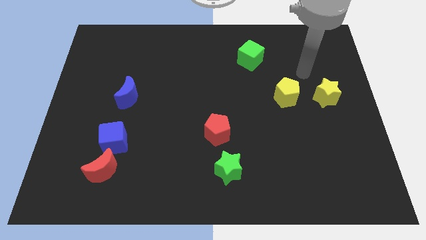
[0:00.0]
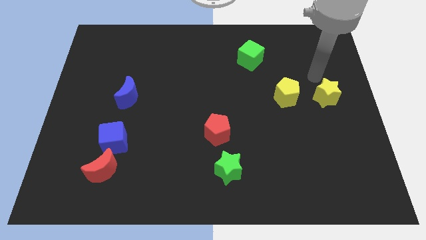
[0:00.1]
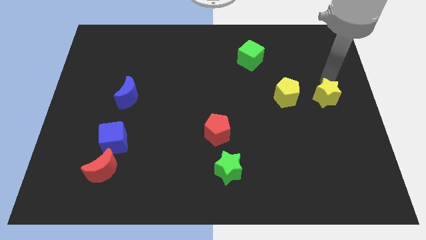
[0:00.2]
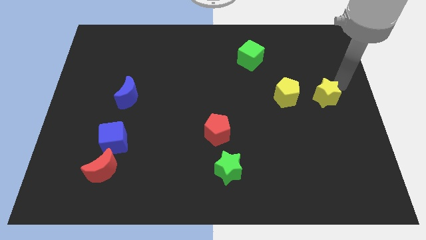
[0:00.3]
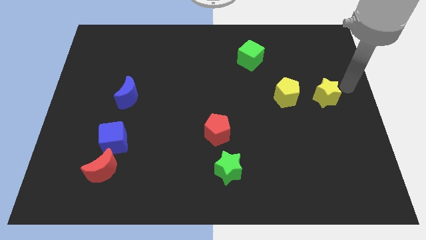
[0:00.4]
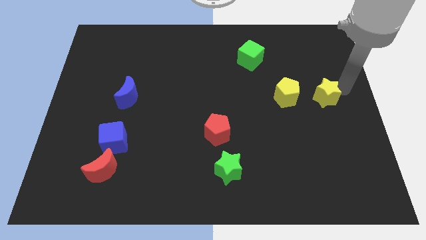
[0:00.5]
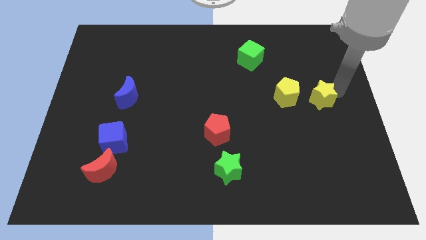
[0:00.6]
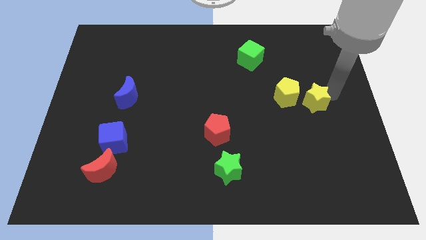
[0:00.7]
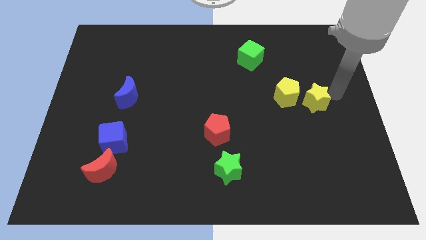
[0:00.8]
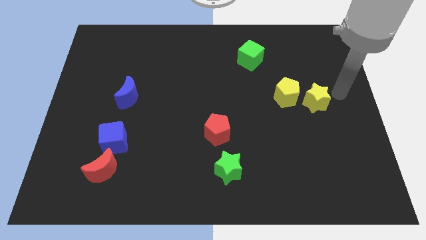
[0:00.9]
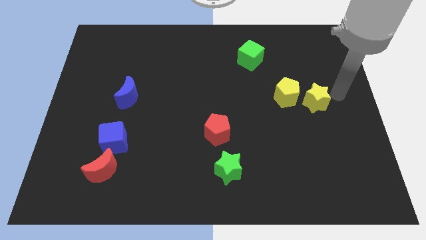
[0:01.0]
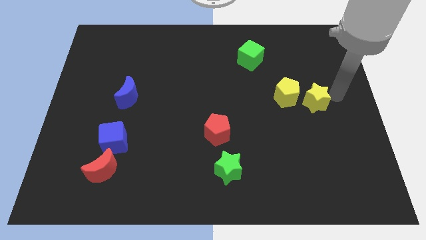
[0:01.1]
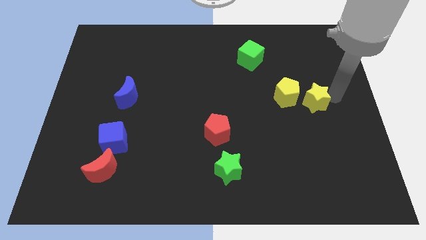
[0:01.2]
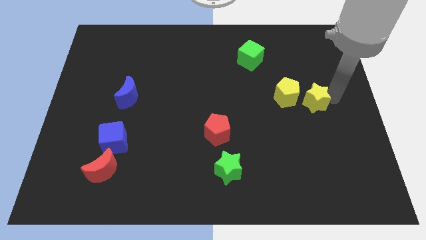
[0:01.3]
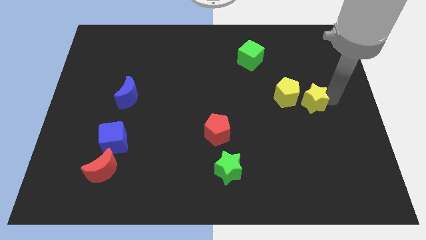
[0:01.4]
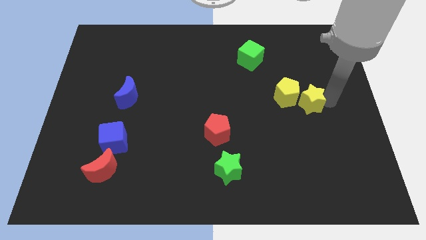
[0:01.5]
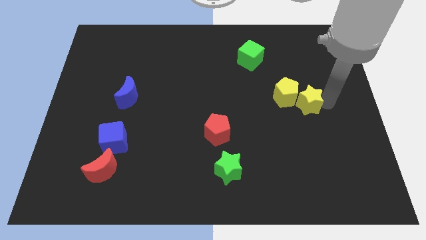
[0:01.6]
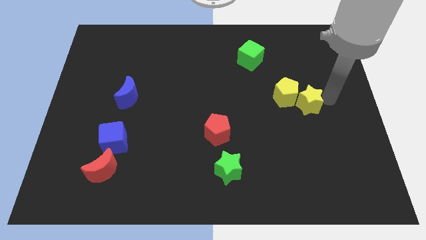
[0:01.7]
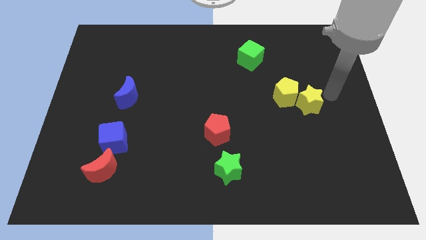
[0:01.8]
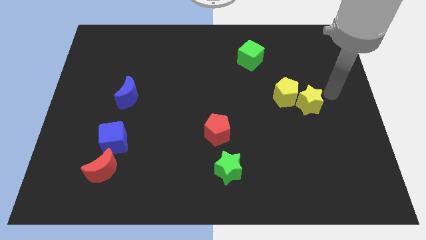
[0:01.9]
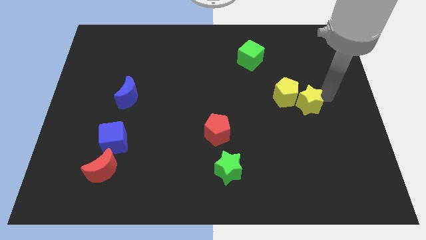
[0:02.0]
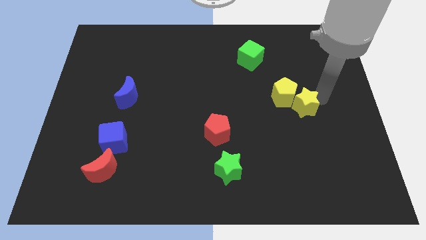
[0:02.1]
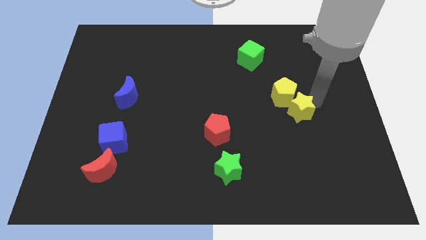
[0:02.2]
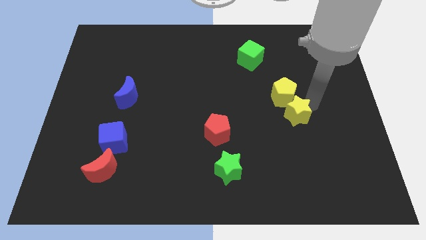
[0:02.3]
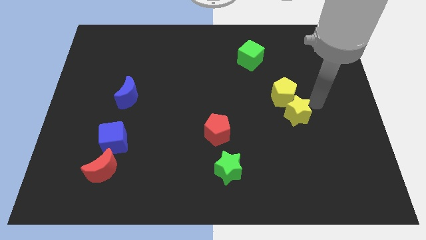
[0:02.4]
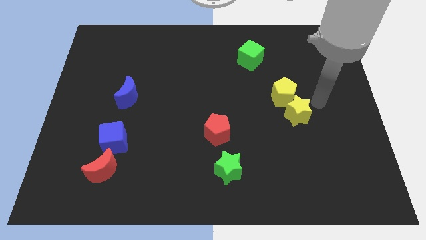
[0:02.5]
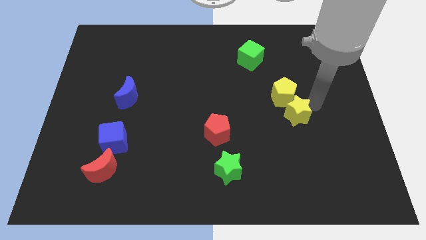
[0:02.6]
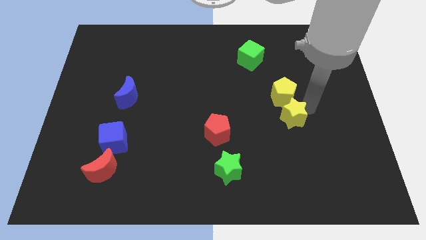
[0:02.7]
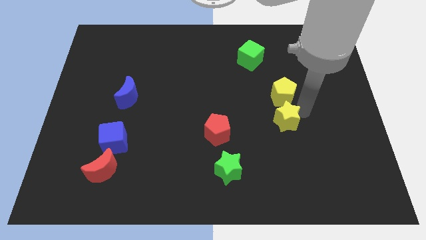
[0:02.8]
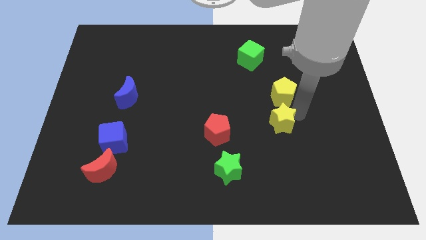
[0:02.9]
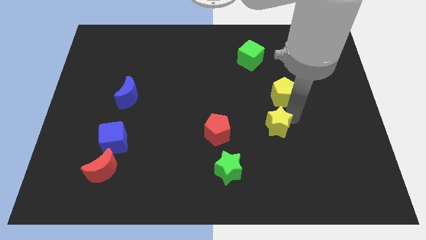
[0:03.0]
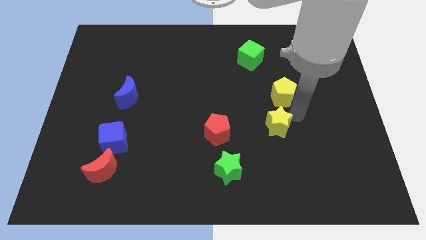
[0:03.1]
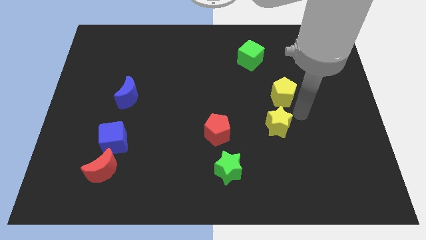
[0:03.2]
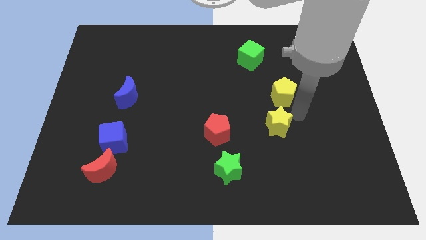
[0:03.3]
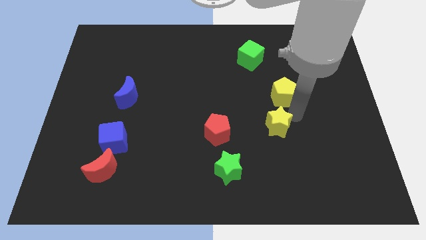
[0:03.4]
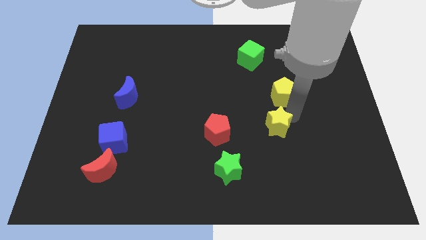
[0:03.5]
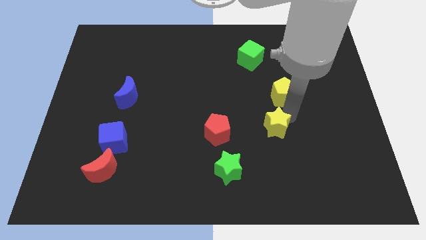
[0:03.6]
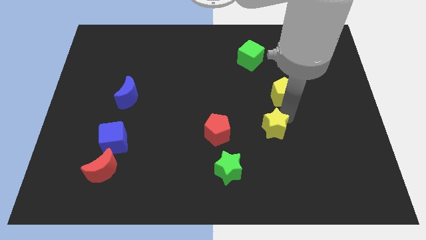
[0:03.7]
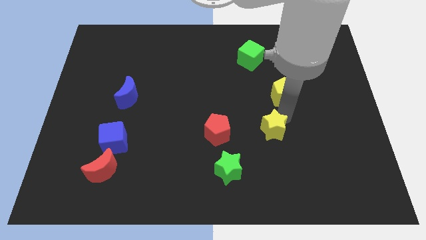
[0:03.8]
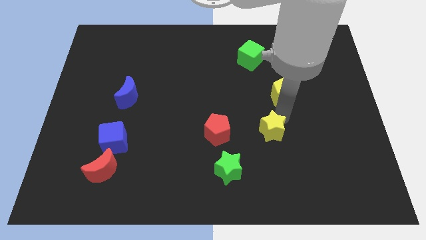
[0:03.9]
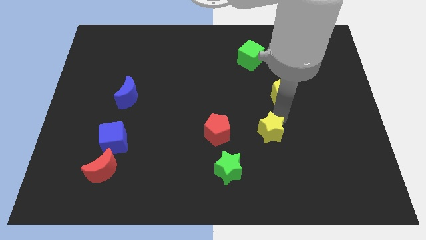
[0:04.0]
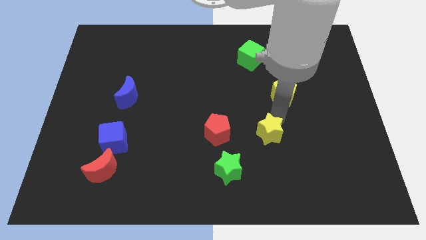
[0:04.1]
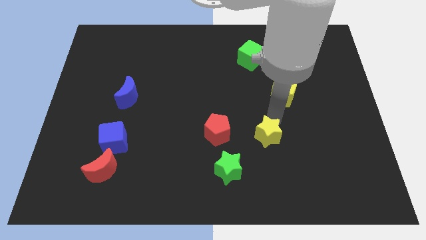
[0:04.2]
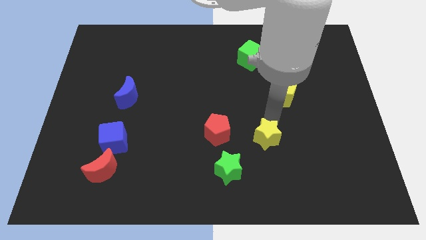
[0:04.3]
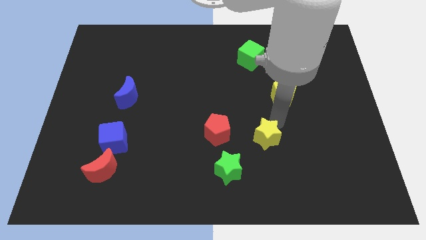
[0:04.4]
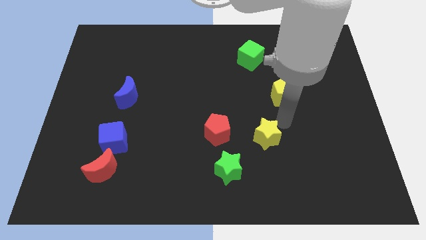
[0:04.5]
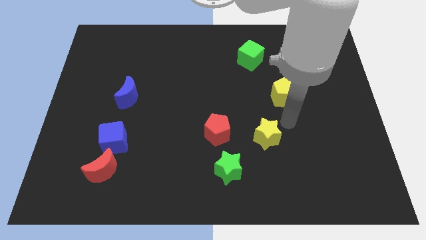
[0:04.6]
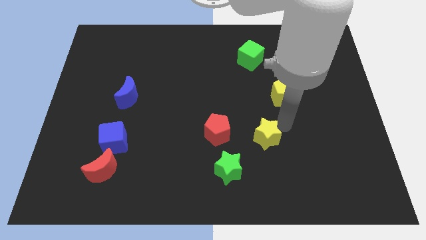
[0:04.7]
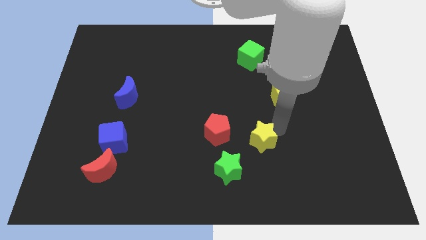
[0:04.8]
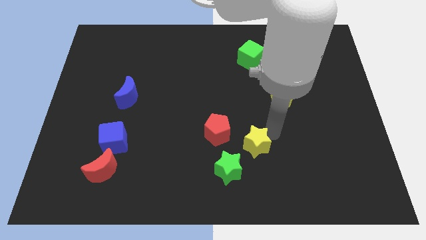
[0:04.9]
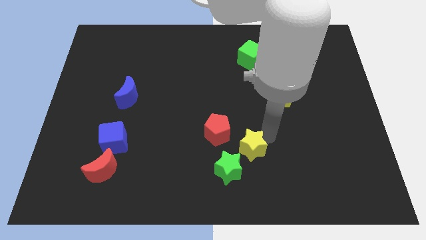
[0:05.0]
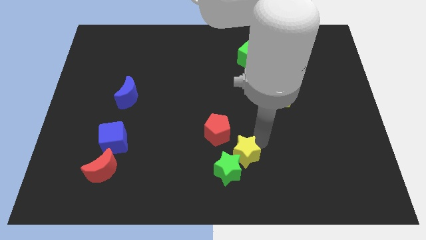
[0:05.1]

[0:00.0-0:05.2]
move the yellow star next to the green star

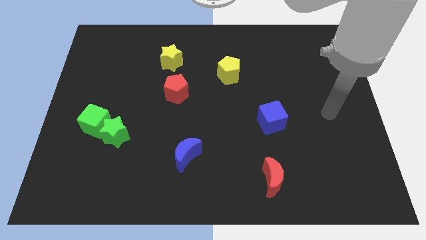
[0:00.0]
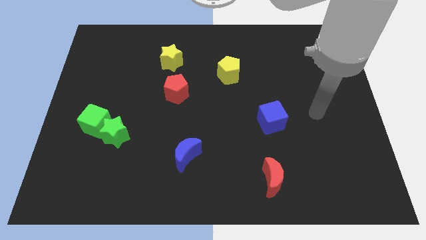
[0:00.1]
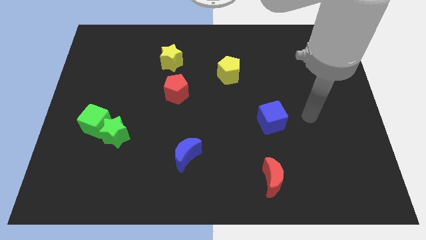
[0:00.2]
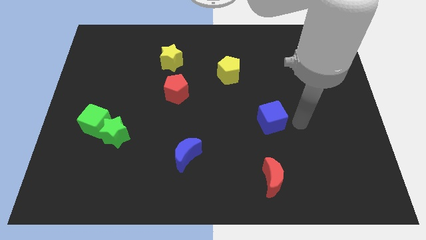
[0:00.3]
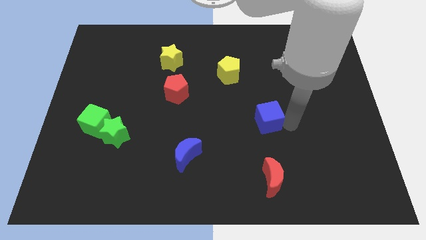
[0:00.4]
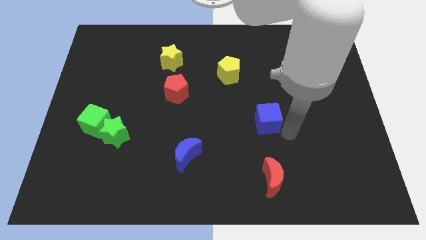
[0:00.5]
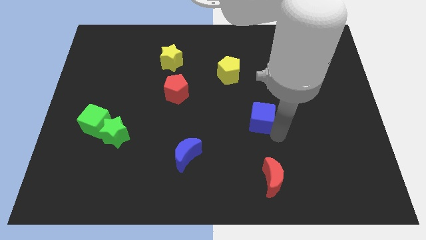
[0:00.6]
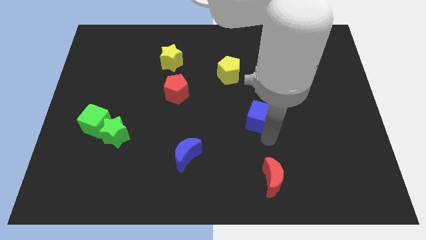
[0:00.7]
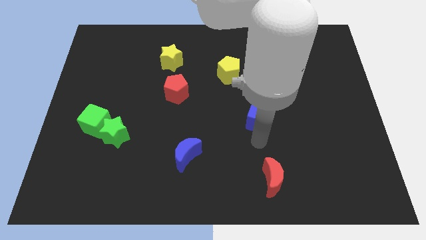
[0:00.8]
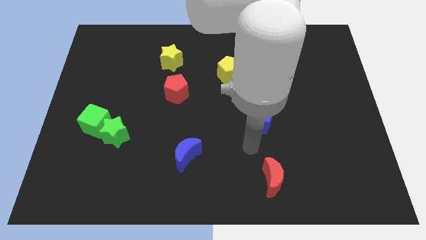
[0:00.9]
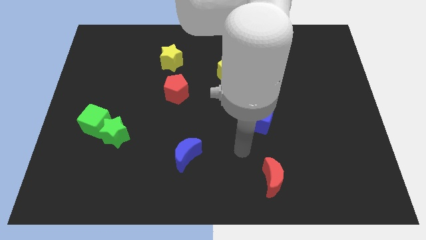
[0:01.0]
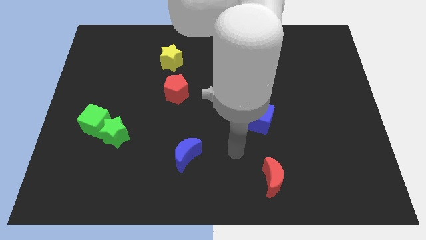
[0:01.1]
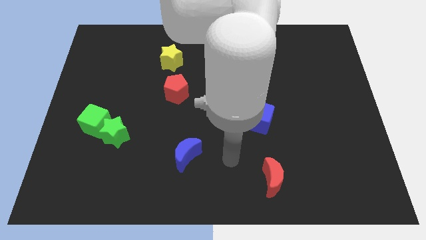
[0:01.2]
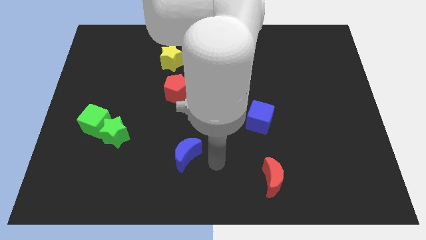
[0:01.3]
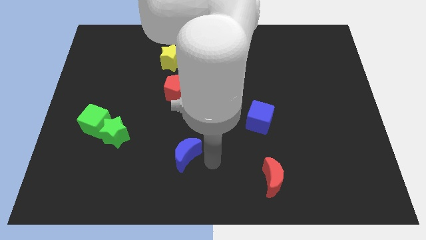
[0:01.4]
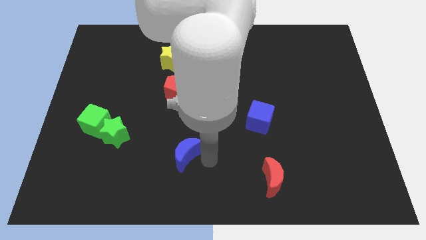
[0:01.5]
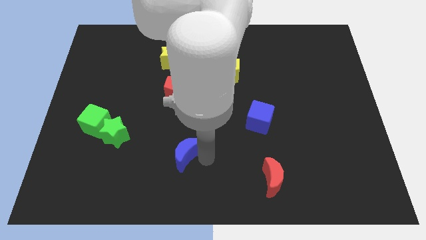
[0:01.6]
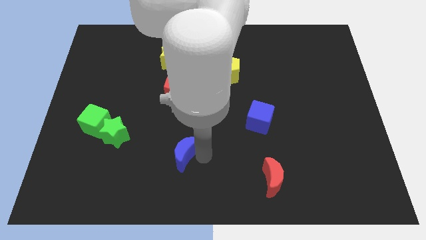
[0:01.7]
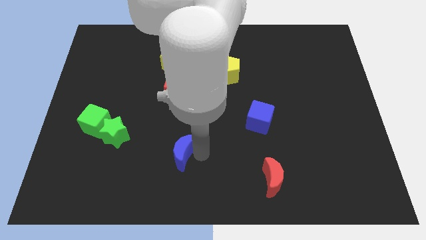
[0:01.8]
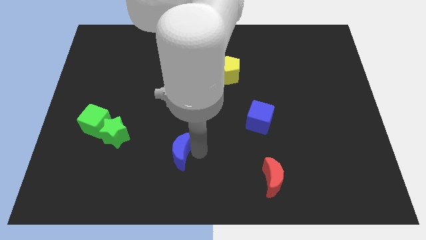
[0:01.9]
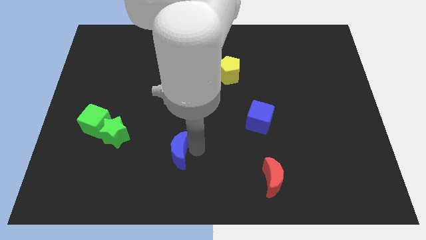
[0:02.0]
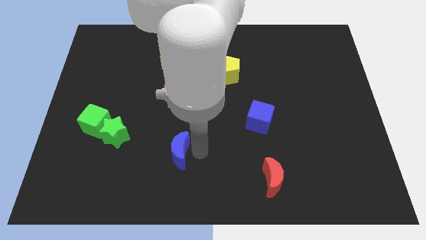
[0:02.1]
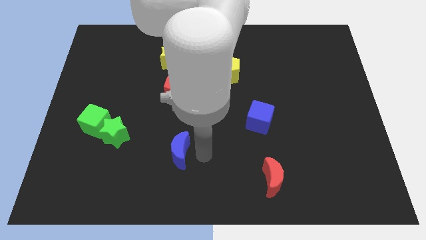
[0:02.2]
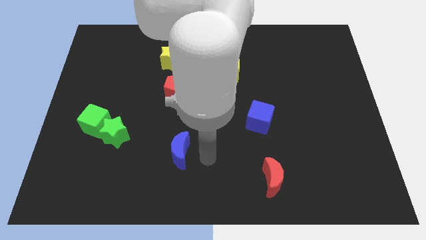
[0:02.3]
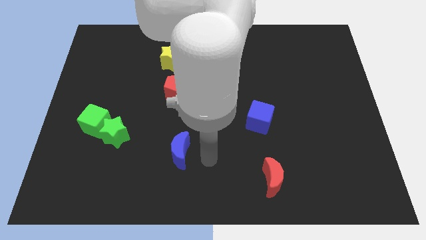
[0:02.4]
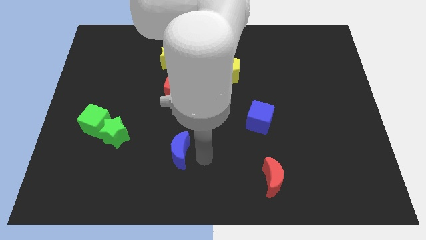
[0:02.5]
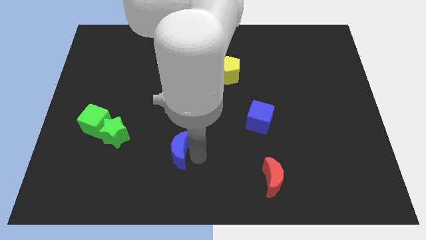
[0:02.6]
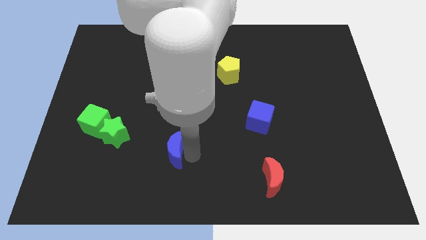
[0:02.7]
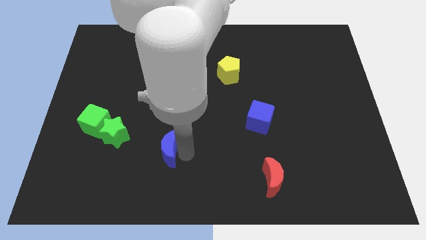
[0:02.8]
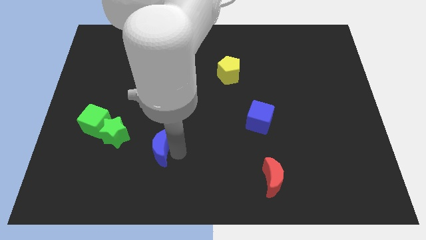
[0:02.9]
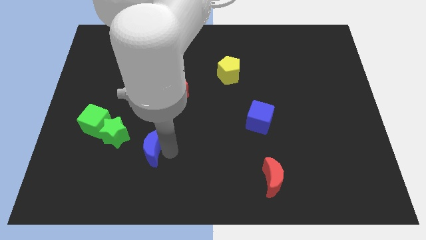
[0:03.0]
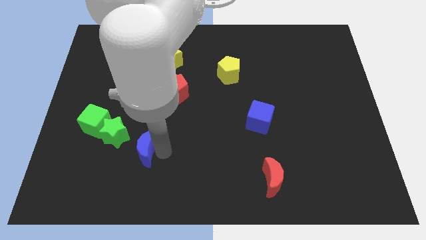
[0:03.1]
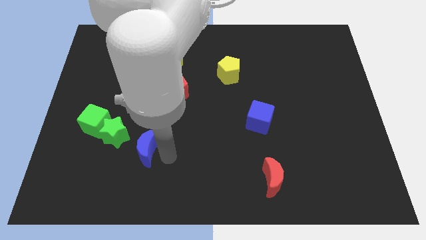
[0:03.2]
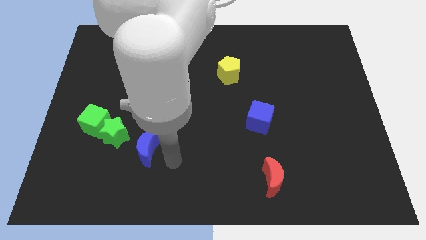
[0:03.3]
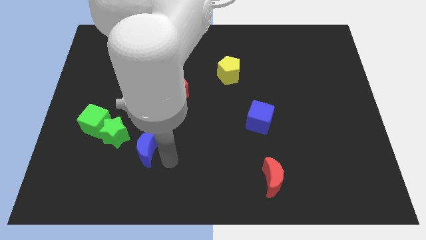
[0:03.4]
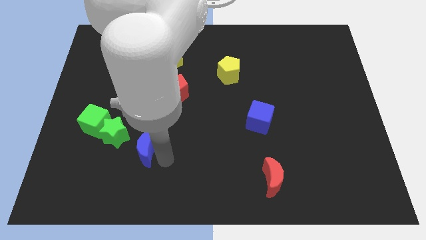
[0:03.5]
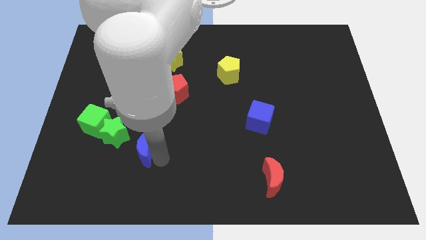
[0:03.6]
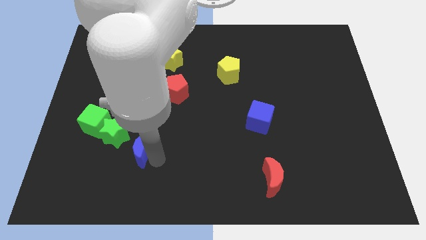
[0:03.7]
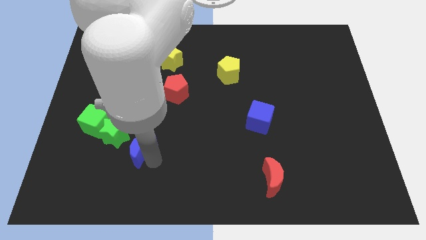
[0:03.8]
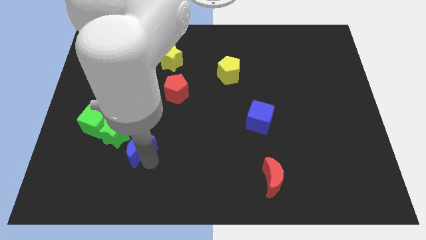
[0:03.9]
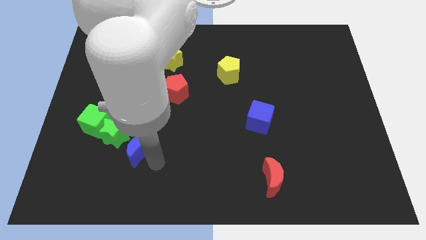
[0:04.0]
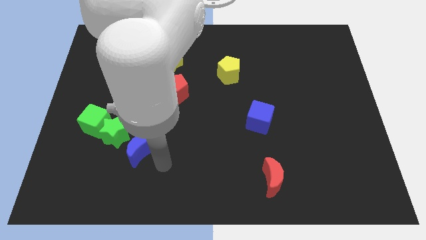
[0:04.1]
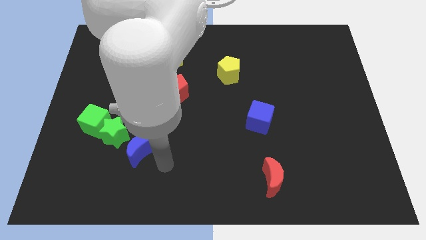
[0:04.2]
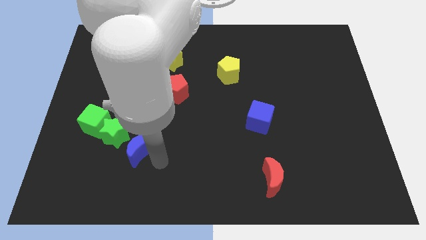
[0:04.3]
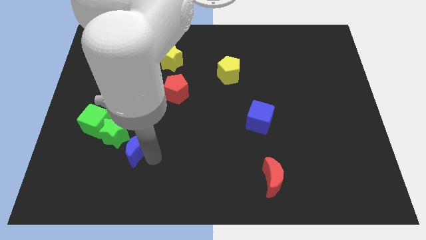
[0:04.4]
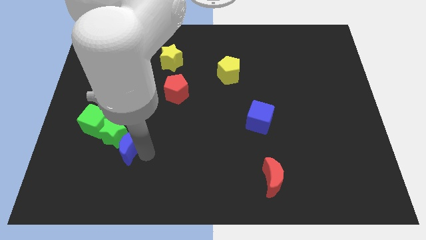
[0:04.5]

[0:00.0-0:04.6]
put the blue moon to the green star
